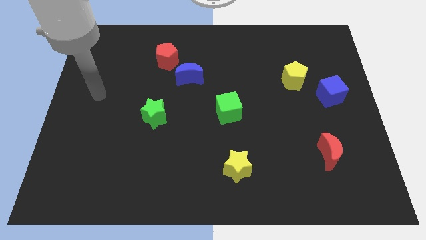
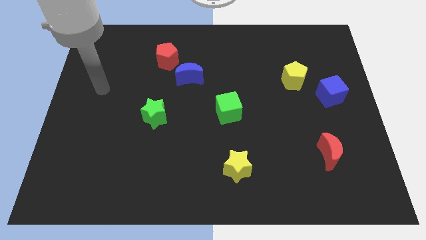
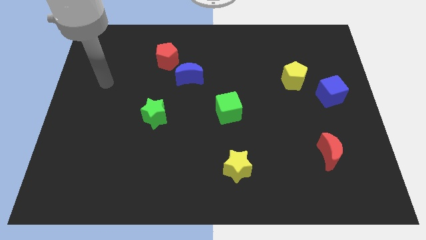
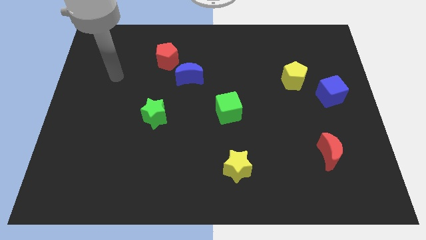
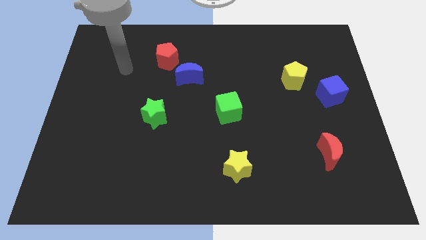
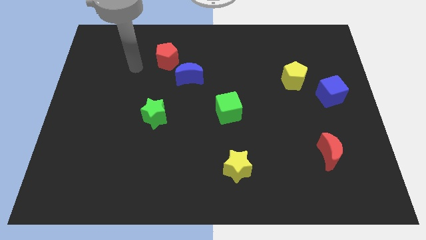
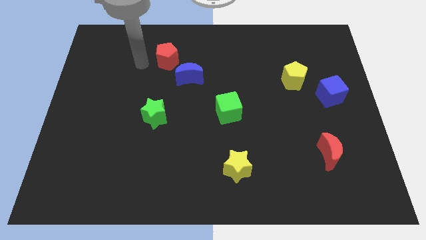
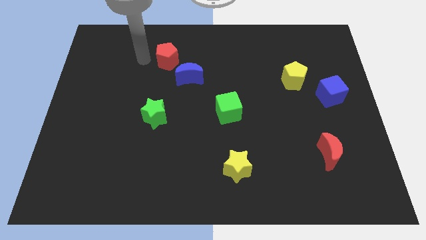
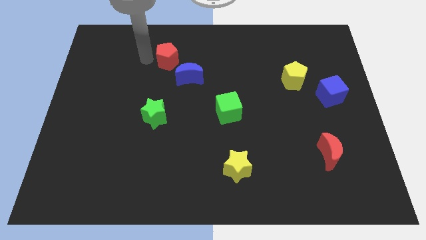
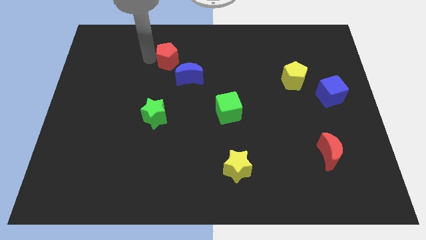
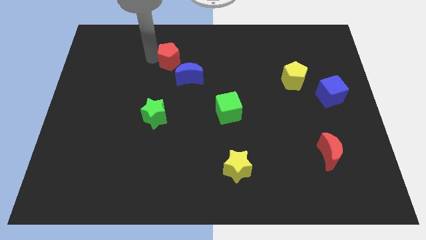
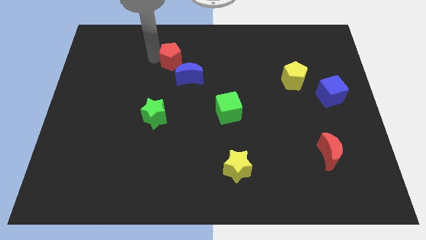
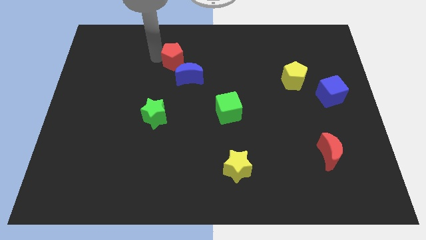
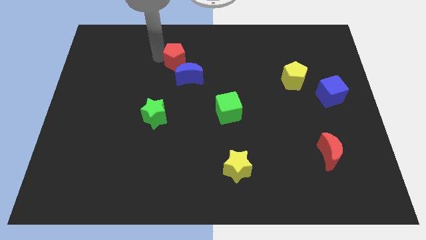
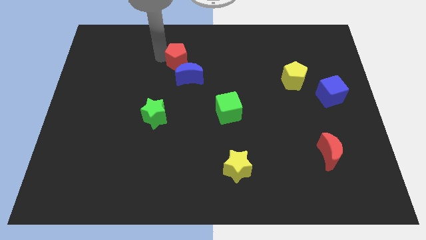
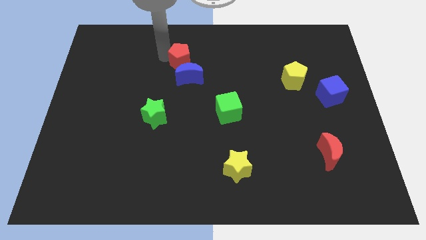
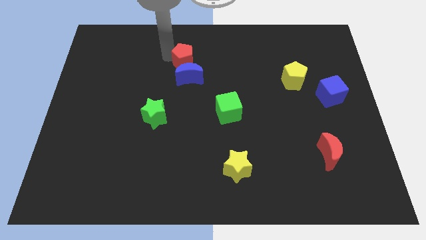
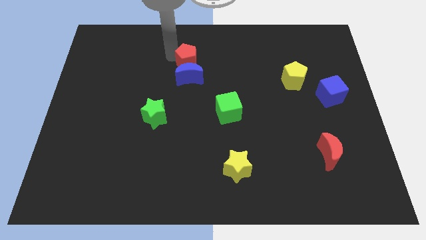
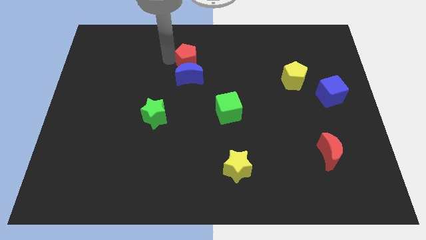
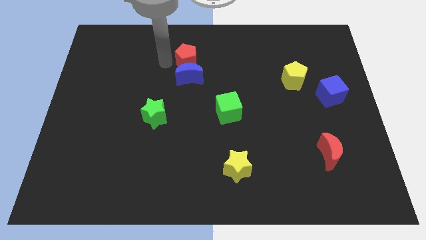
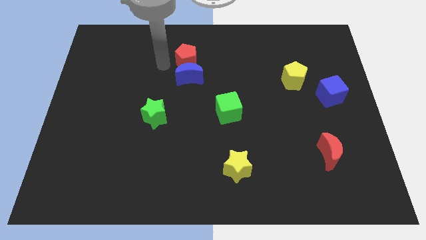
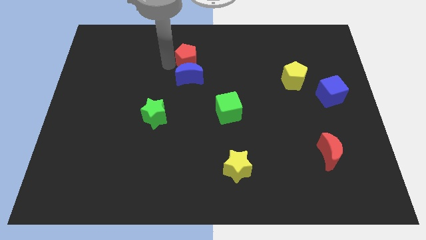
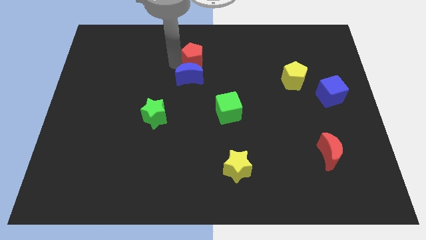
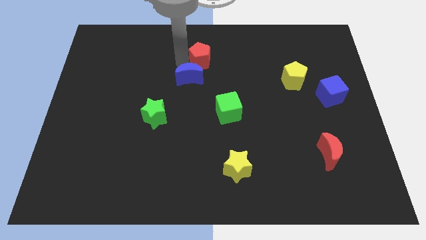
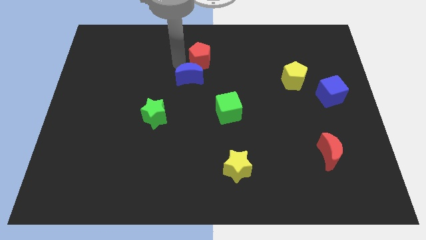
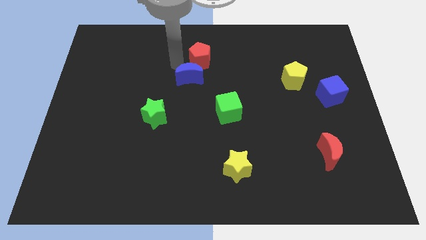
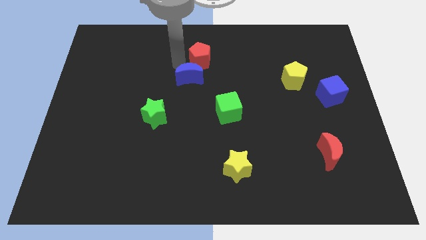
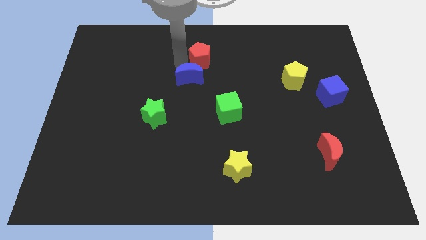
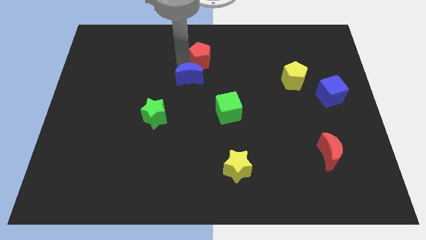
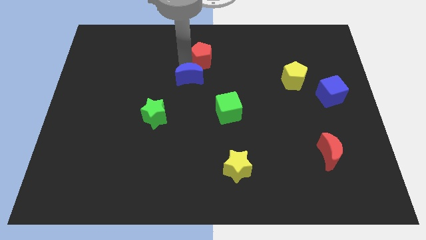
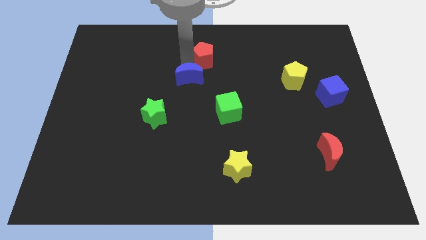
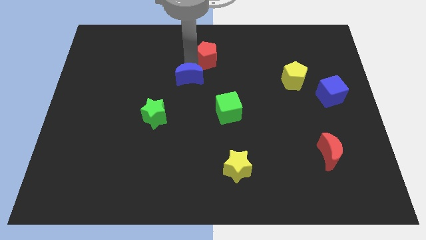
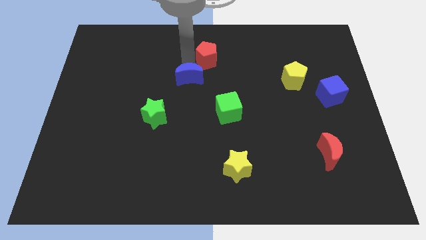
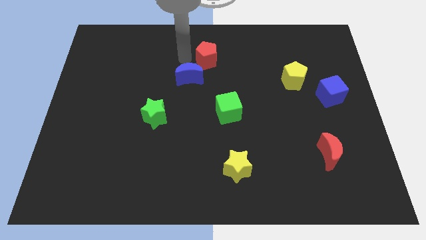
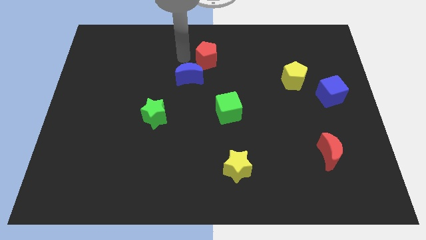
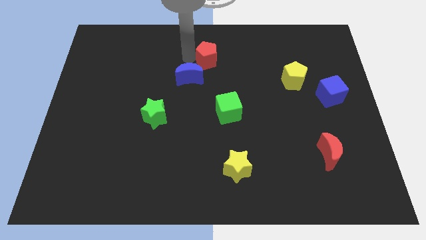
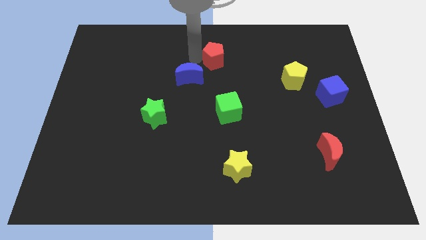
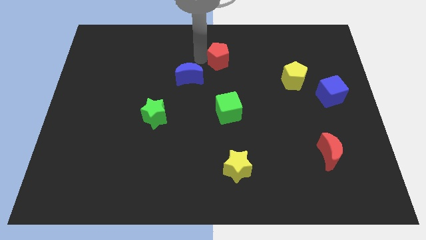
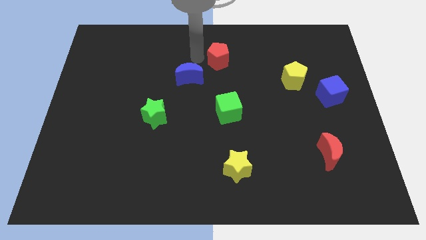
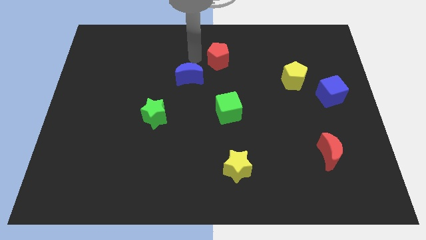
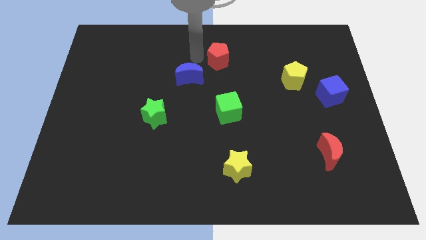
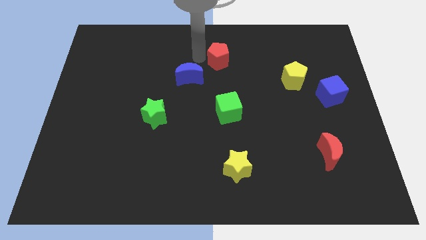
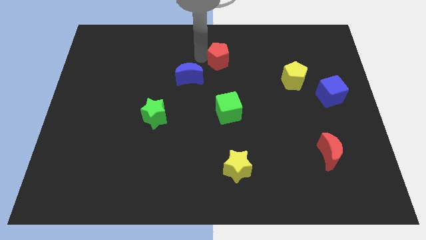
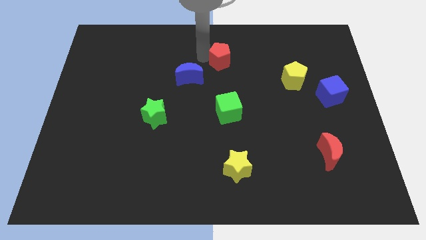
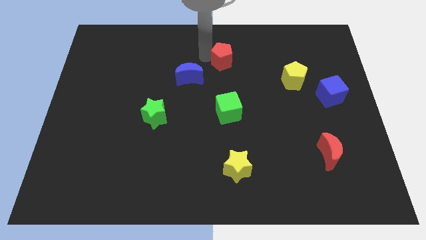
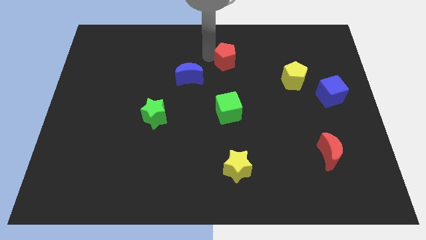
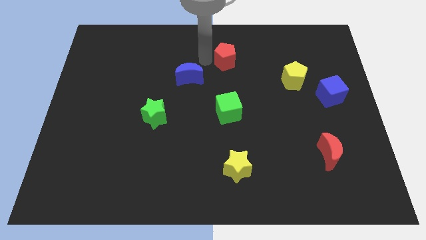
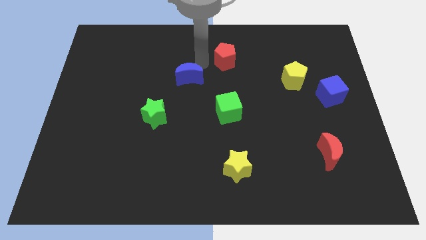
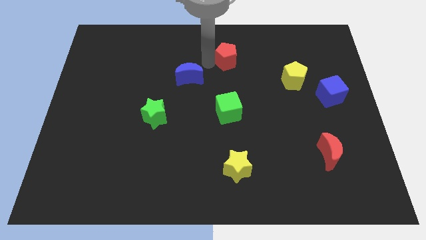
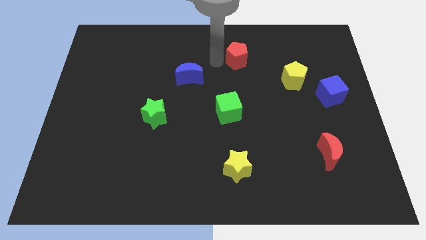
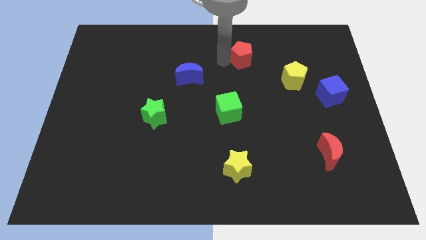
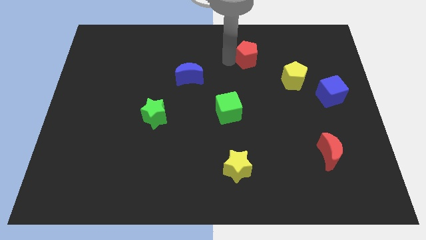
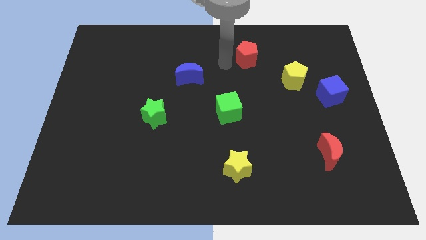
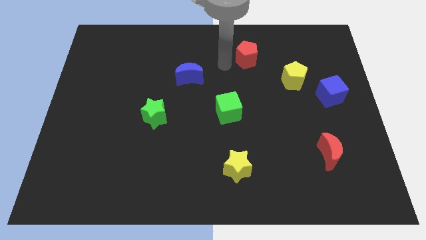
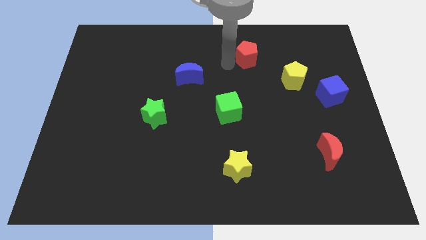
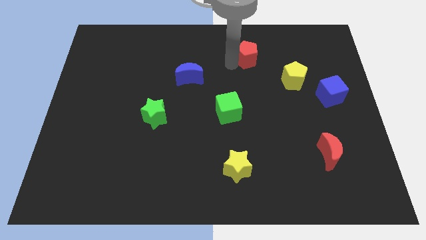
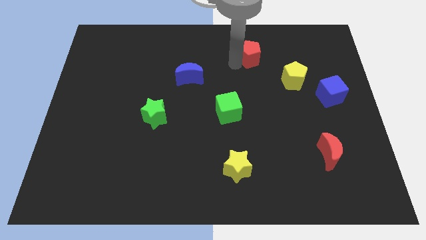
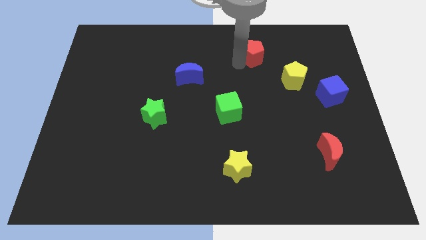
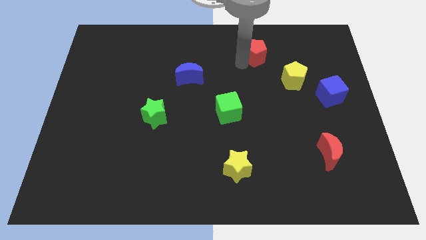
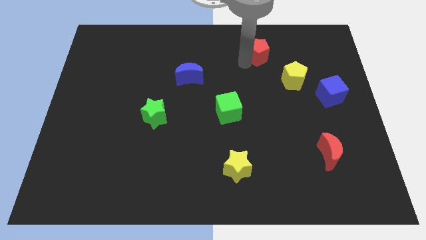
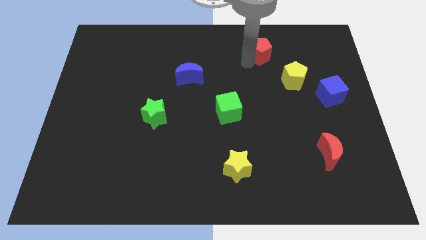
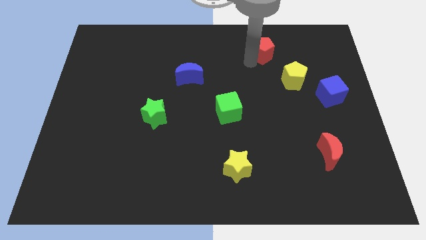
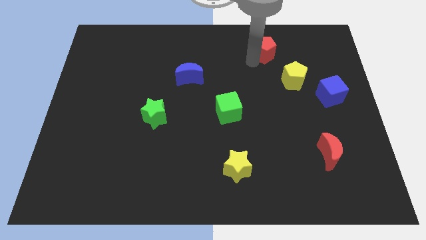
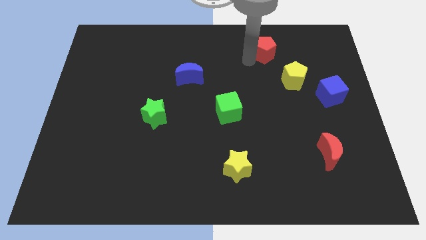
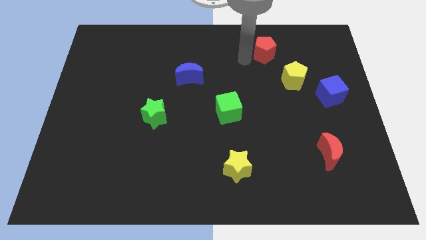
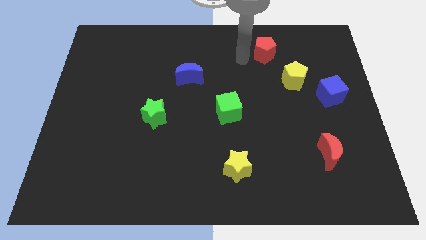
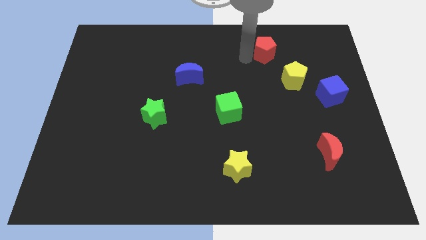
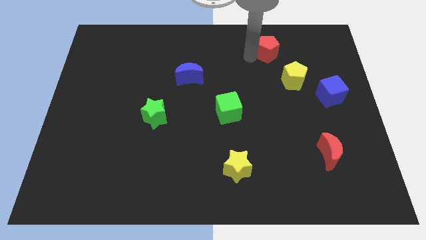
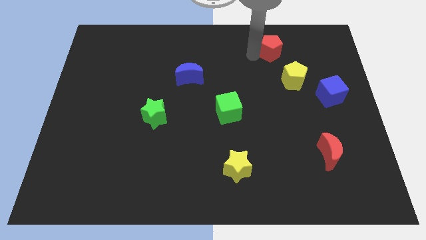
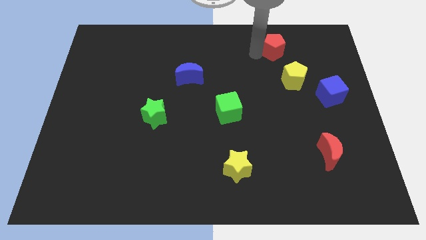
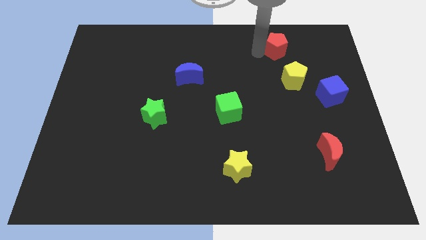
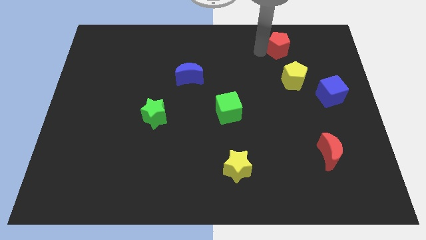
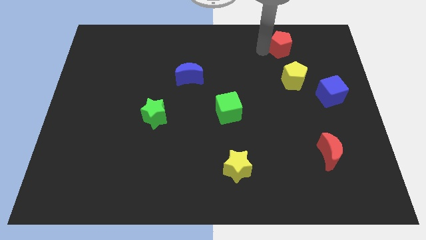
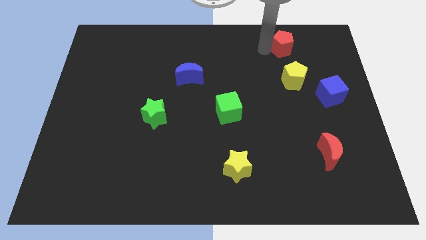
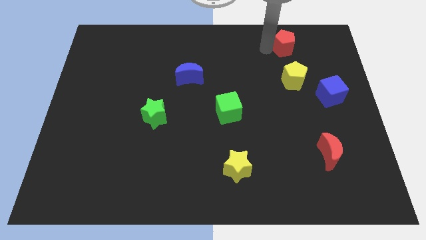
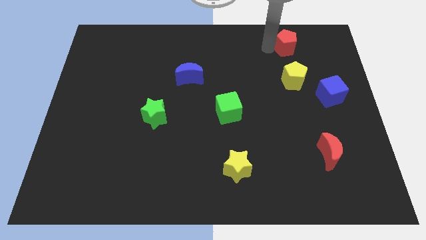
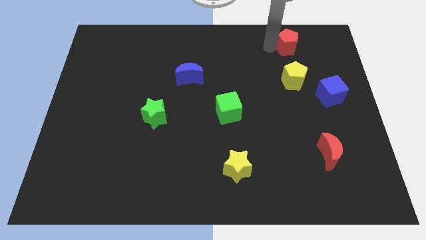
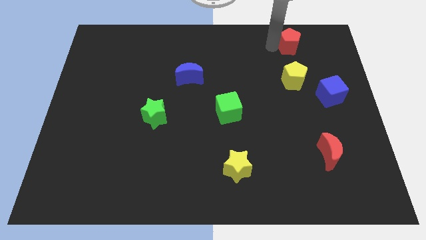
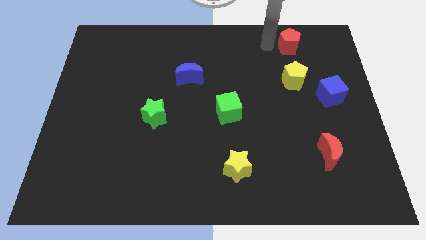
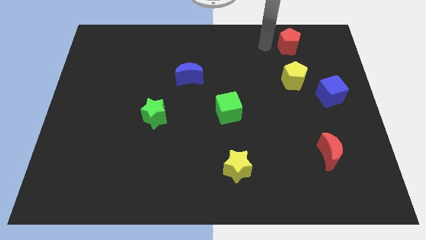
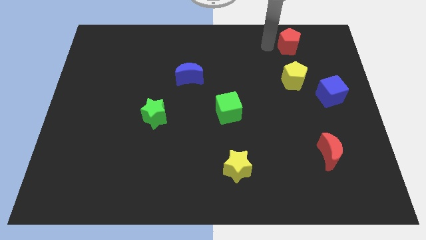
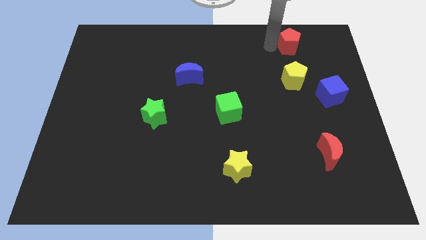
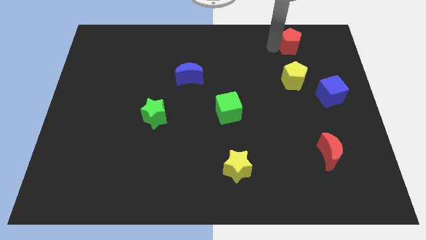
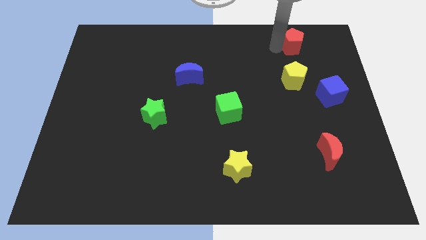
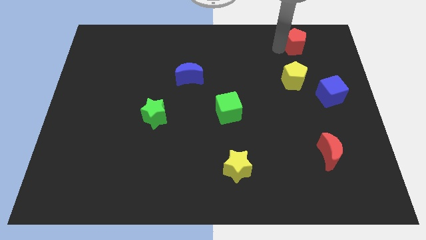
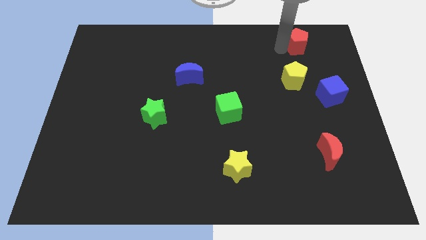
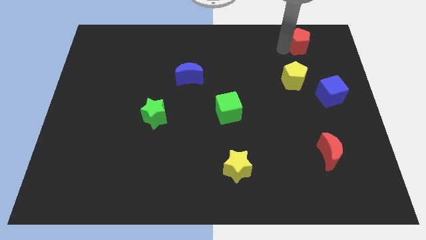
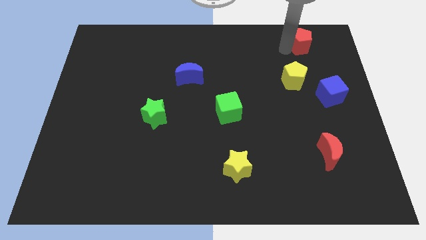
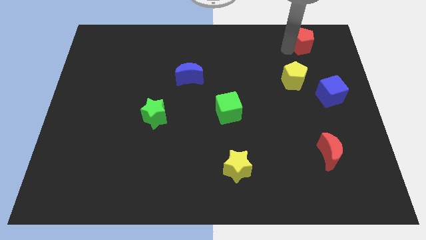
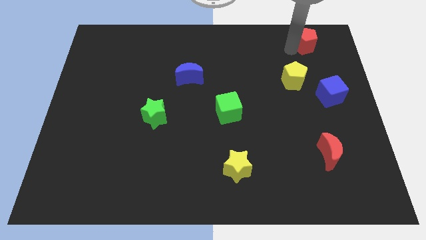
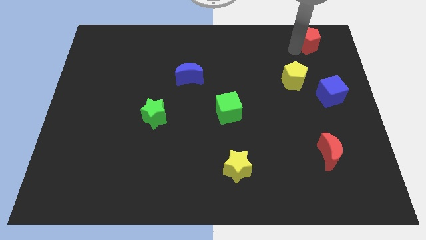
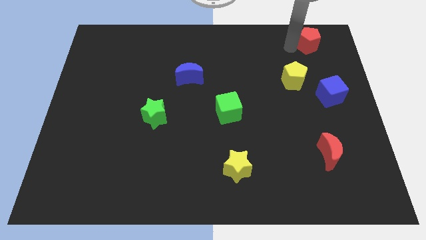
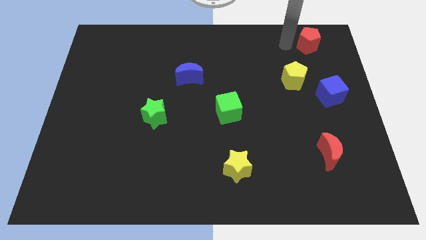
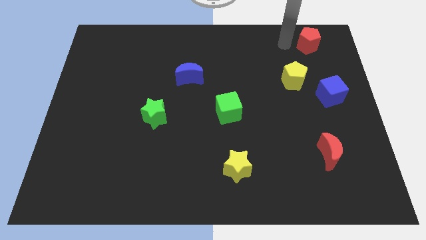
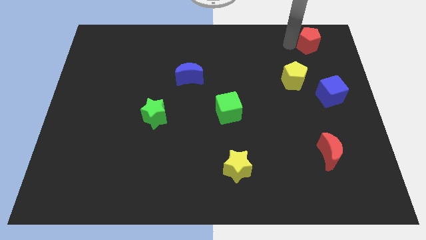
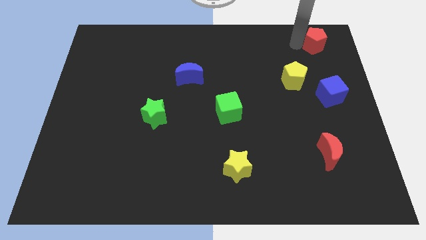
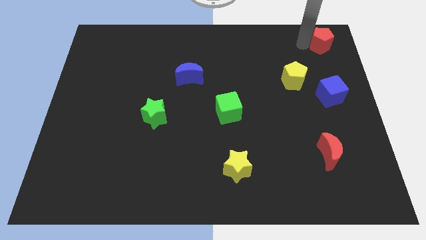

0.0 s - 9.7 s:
put the red pentagon to the upper right corner
